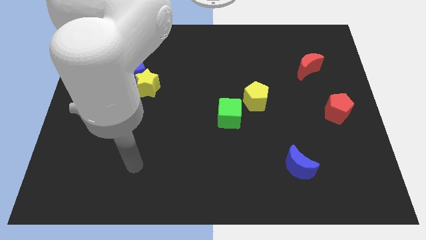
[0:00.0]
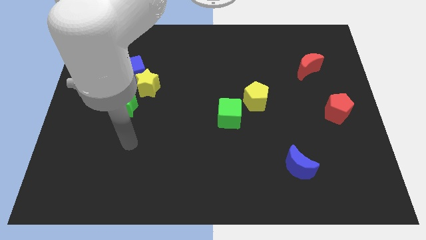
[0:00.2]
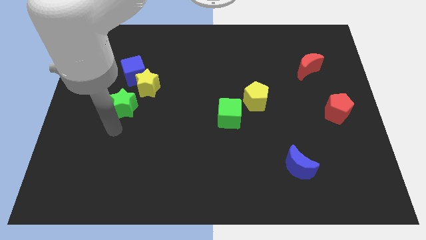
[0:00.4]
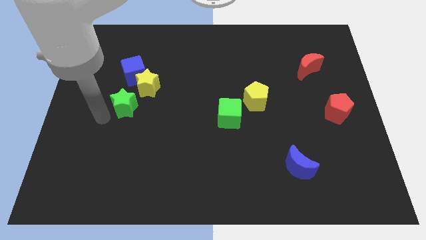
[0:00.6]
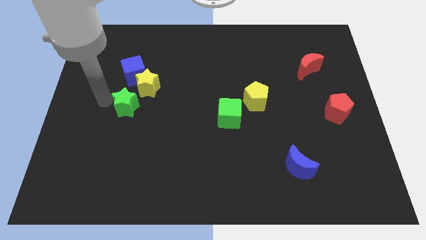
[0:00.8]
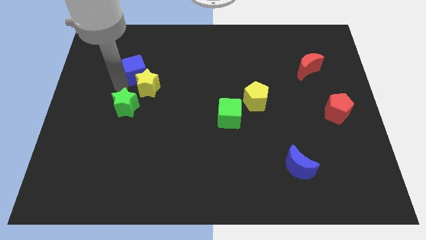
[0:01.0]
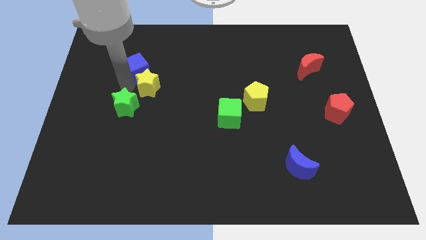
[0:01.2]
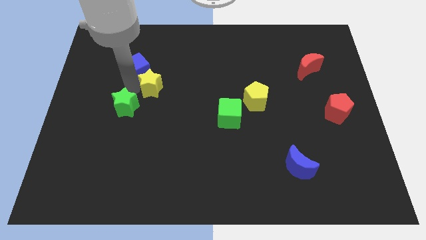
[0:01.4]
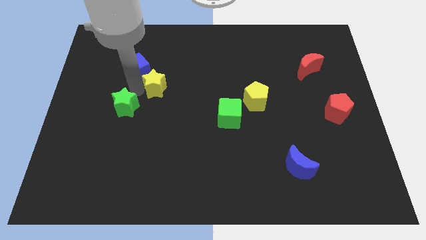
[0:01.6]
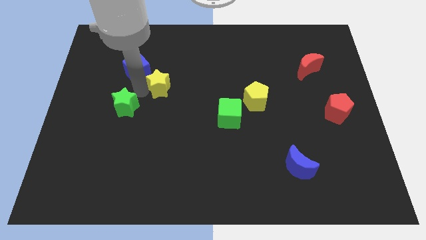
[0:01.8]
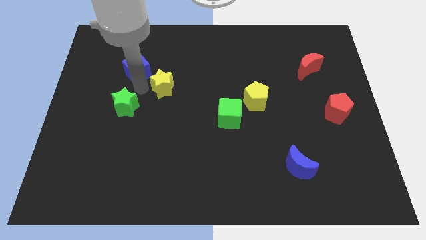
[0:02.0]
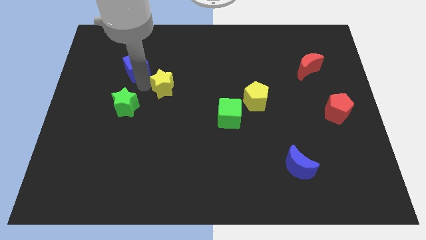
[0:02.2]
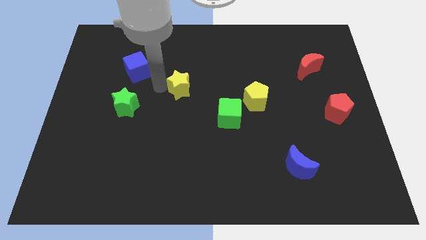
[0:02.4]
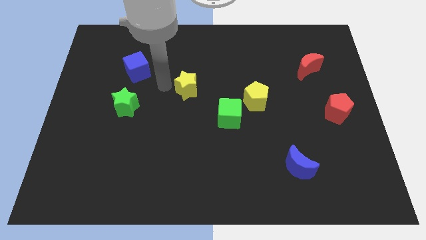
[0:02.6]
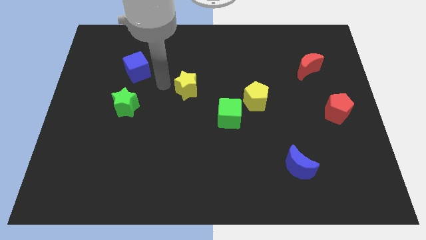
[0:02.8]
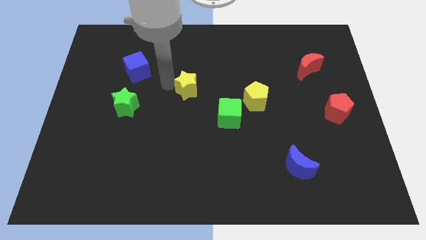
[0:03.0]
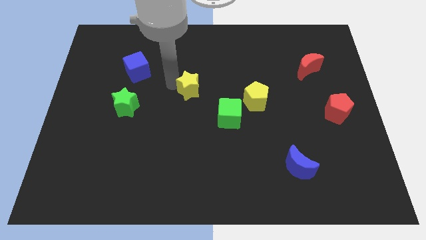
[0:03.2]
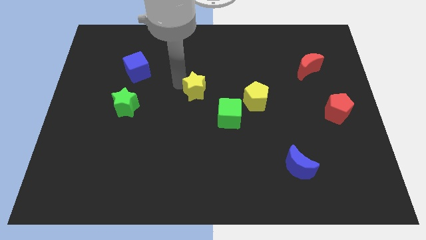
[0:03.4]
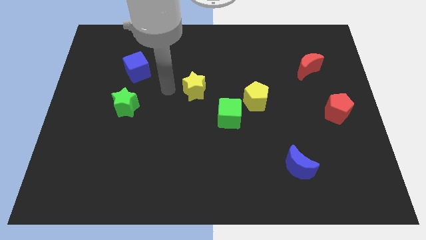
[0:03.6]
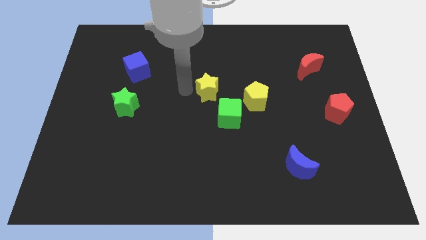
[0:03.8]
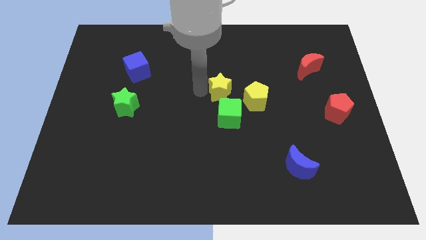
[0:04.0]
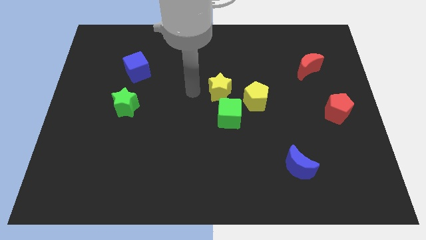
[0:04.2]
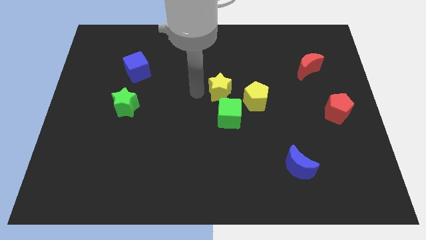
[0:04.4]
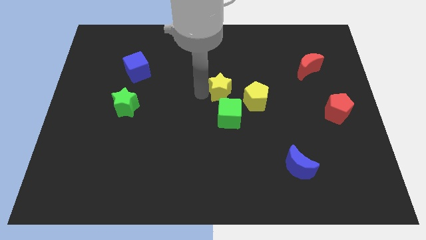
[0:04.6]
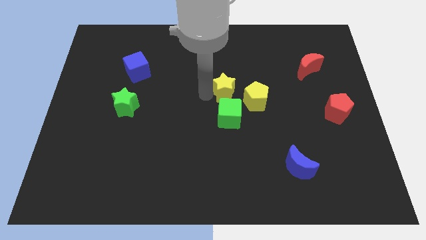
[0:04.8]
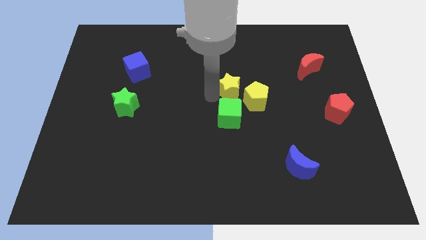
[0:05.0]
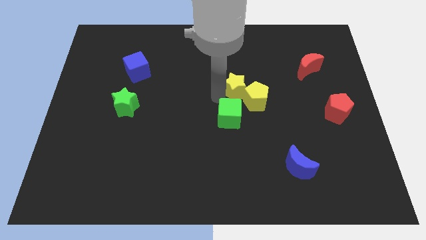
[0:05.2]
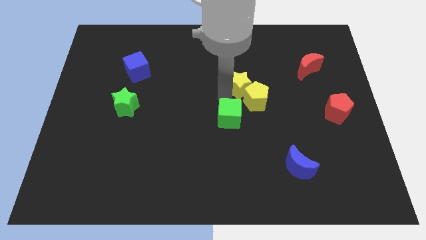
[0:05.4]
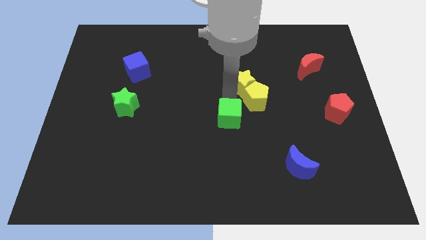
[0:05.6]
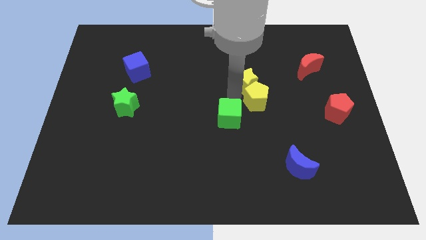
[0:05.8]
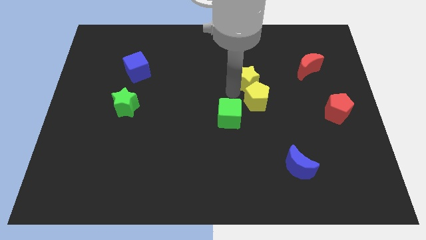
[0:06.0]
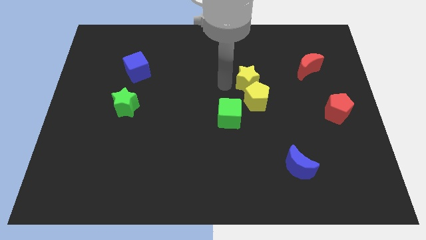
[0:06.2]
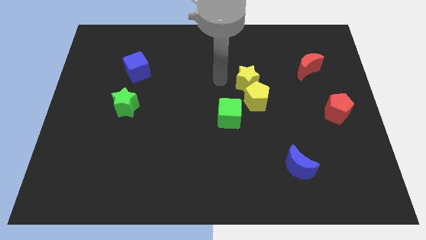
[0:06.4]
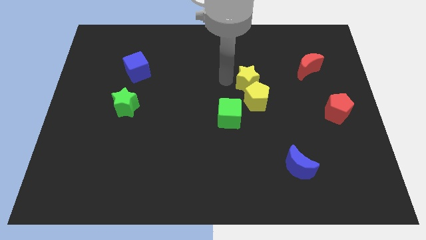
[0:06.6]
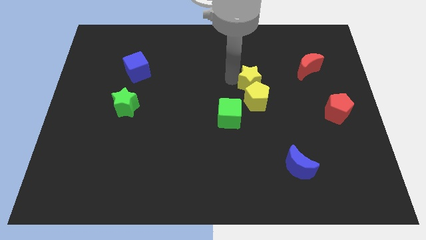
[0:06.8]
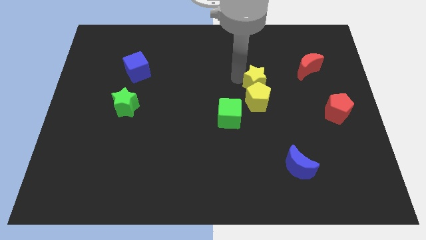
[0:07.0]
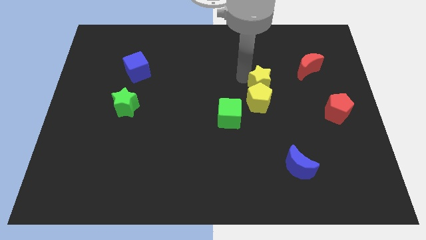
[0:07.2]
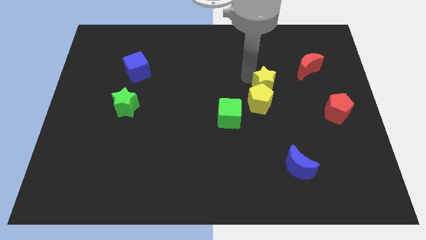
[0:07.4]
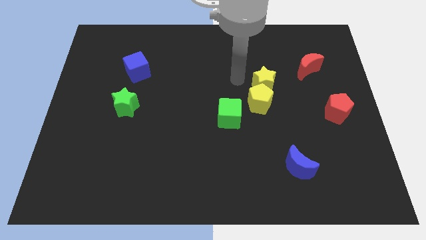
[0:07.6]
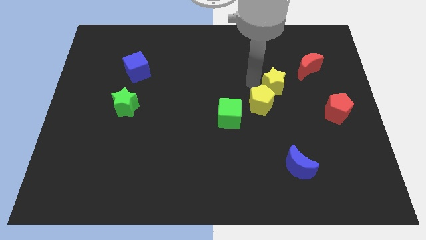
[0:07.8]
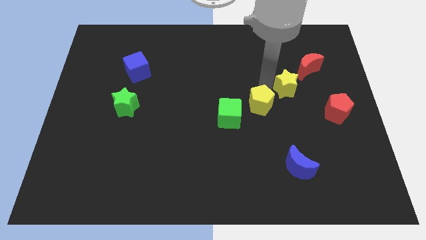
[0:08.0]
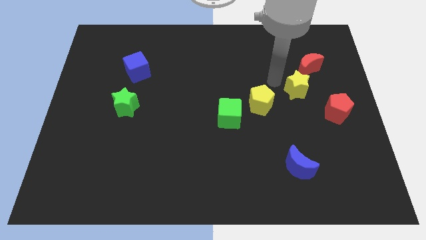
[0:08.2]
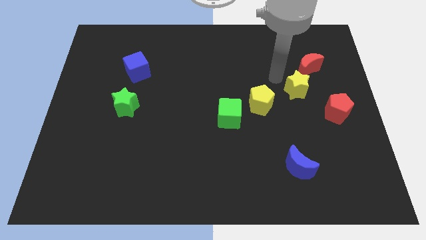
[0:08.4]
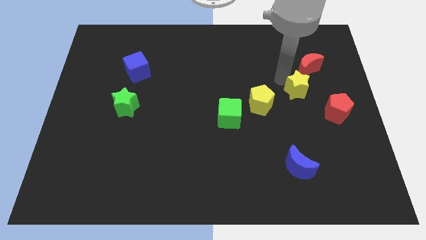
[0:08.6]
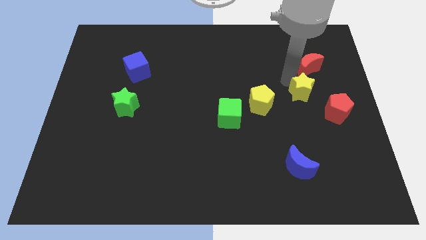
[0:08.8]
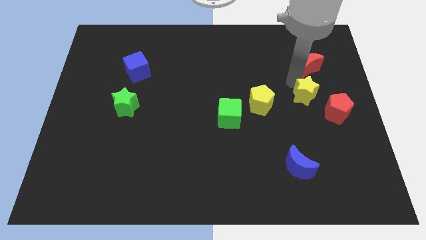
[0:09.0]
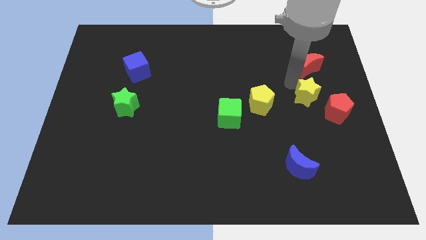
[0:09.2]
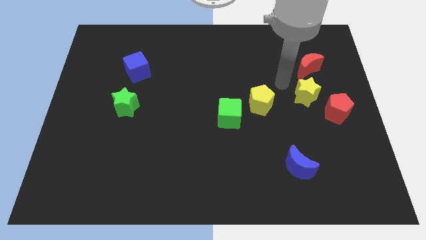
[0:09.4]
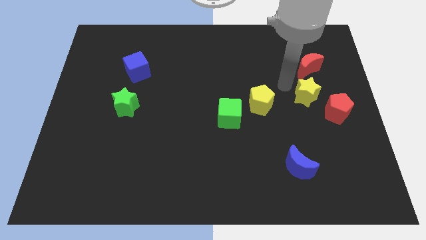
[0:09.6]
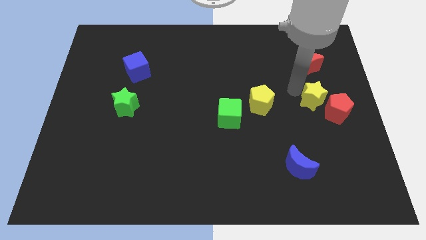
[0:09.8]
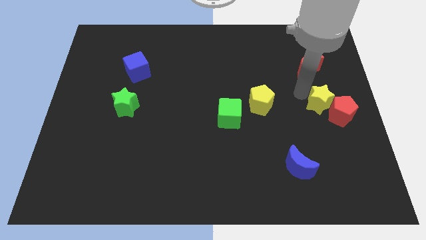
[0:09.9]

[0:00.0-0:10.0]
push the yellow star to the red pentagon

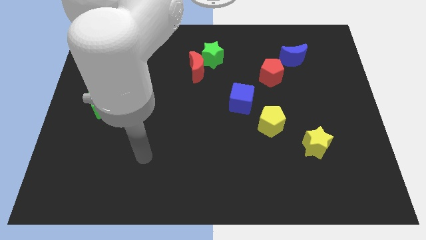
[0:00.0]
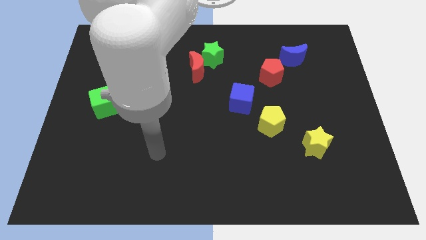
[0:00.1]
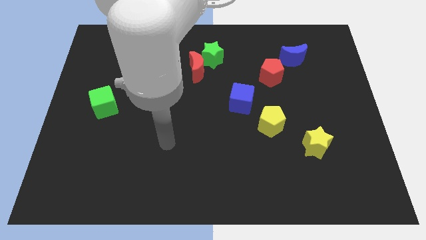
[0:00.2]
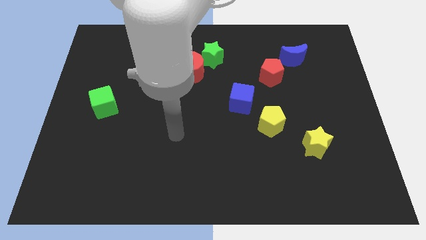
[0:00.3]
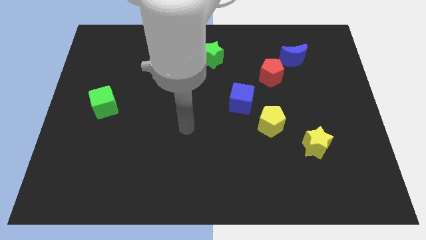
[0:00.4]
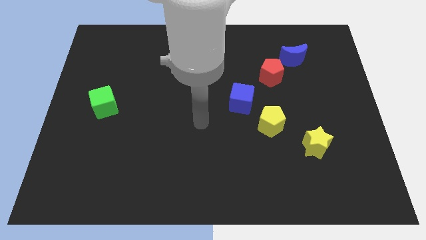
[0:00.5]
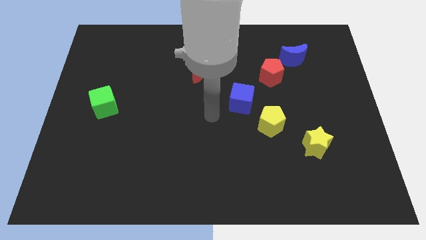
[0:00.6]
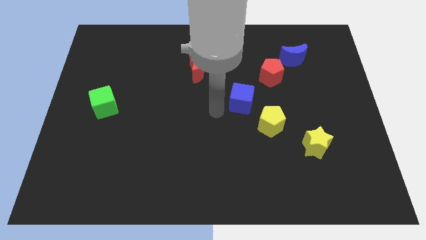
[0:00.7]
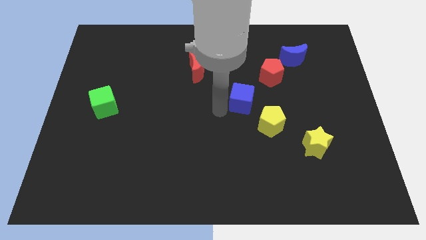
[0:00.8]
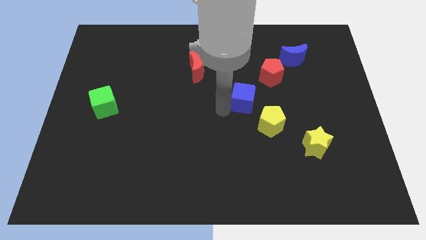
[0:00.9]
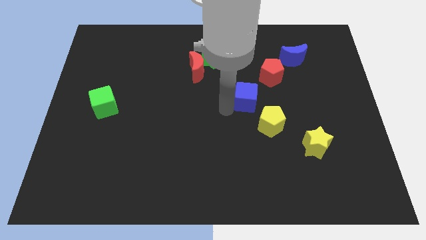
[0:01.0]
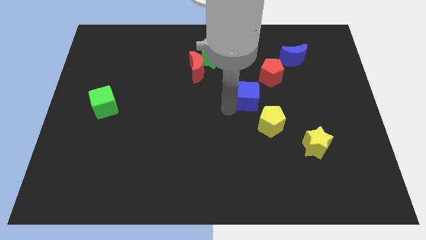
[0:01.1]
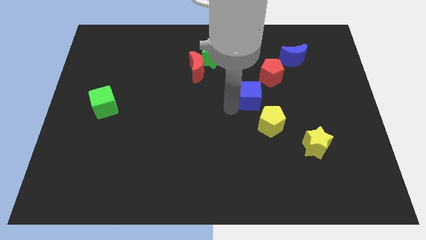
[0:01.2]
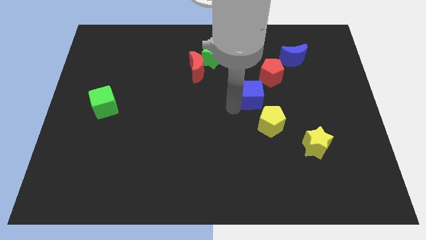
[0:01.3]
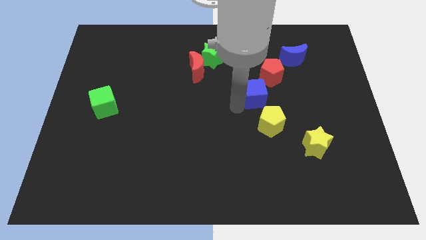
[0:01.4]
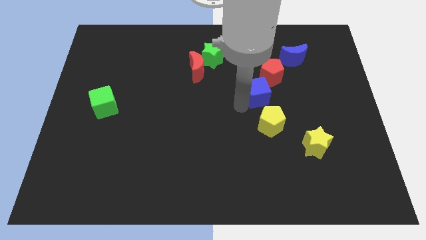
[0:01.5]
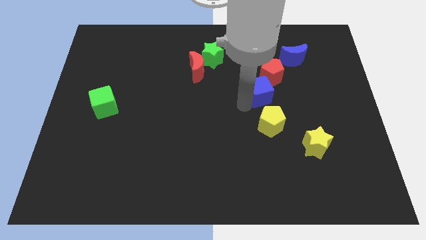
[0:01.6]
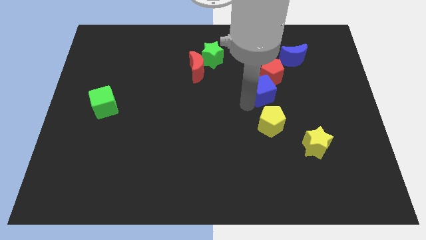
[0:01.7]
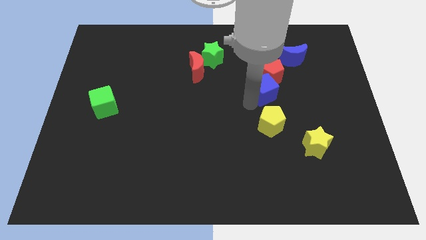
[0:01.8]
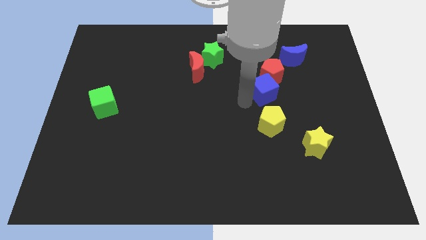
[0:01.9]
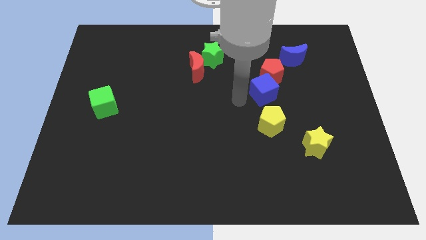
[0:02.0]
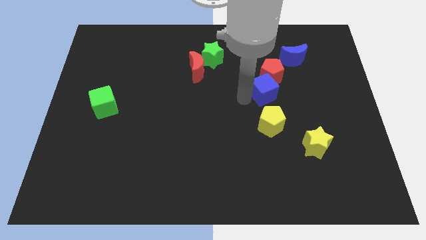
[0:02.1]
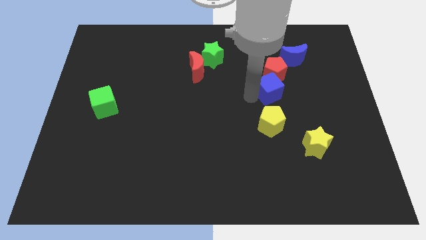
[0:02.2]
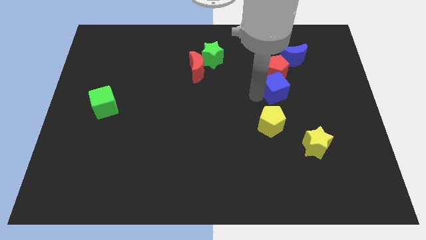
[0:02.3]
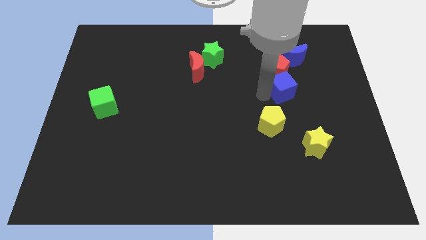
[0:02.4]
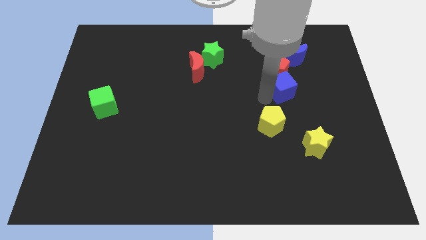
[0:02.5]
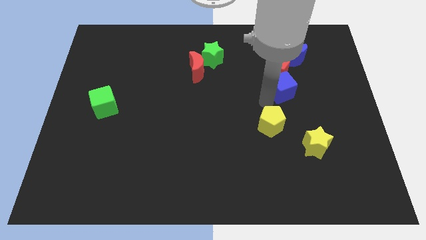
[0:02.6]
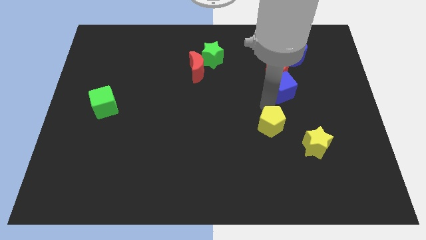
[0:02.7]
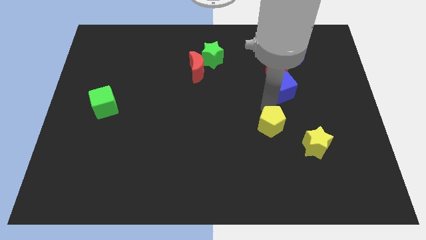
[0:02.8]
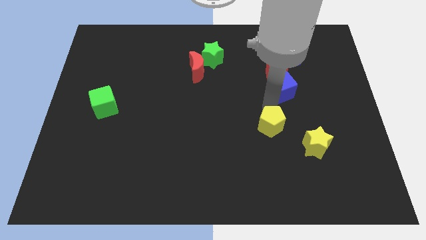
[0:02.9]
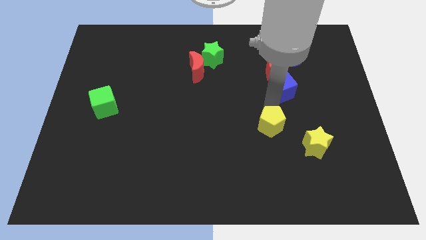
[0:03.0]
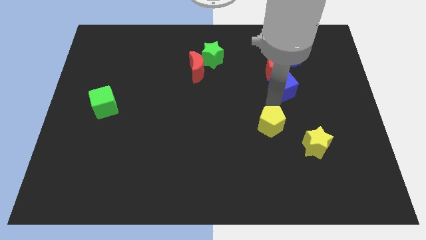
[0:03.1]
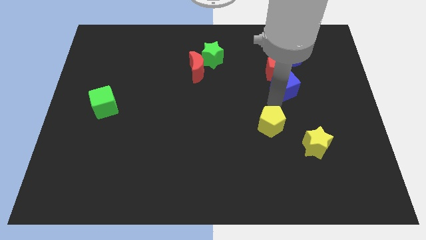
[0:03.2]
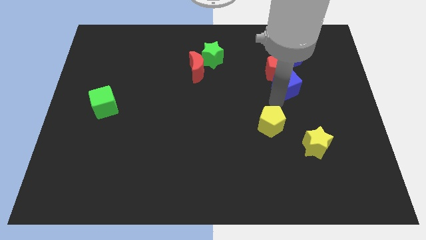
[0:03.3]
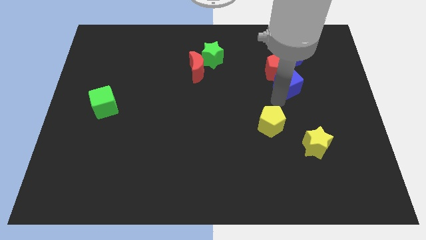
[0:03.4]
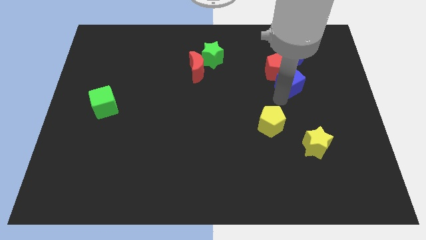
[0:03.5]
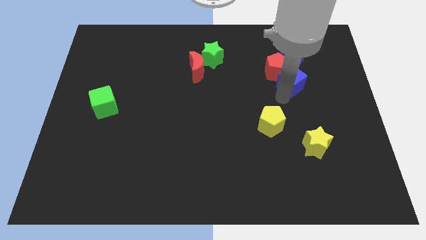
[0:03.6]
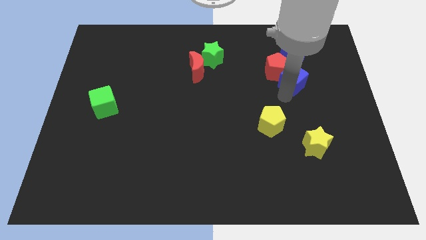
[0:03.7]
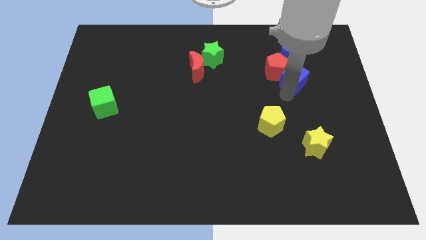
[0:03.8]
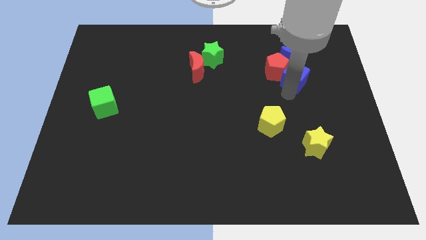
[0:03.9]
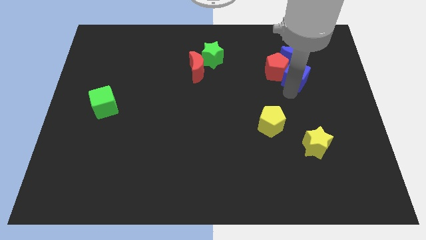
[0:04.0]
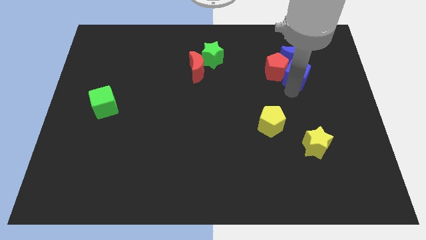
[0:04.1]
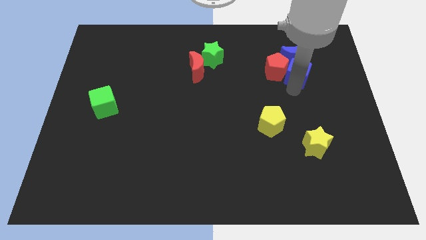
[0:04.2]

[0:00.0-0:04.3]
slide the blue cube towards the blue moon
